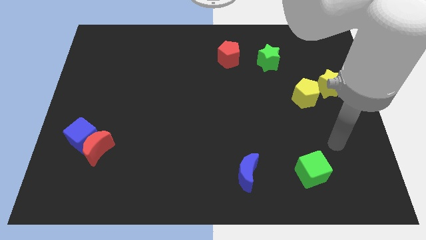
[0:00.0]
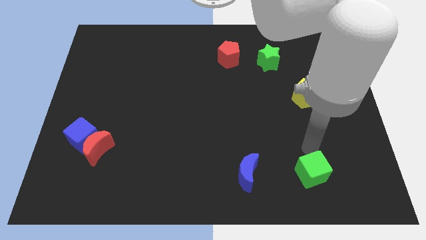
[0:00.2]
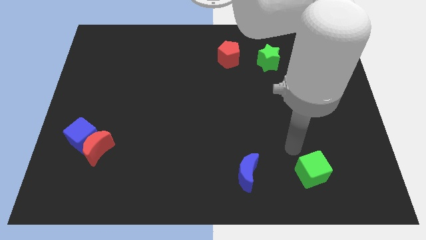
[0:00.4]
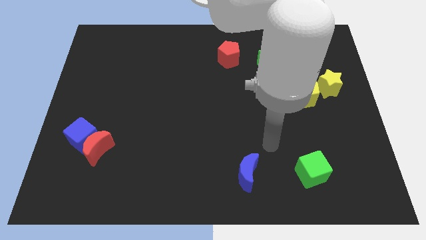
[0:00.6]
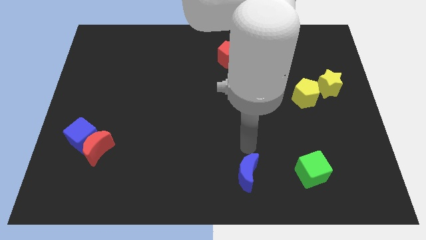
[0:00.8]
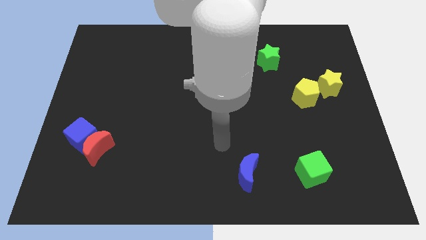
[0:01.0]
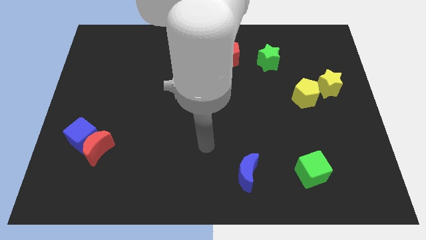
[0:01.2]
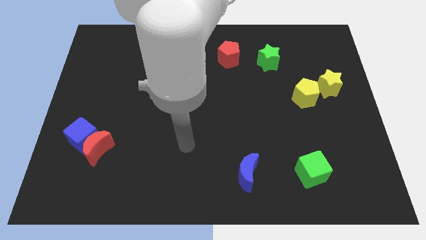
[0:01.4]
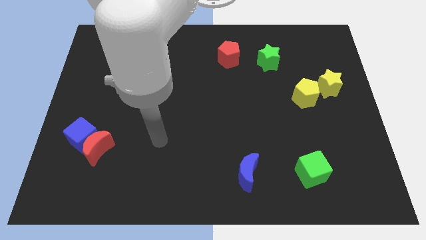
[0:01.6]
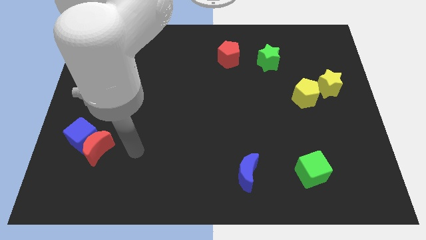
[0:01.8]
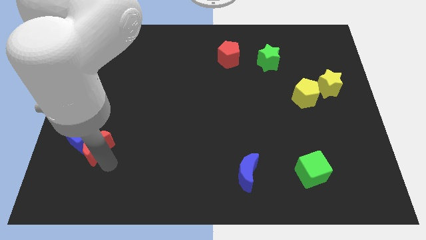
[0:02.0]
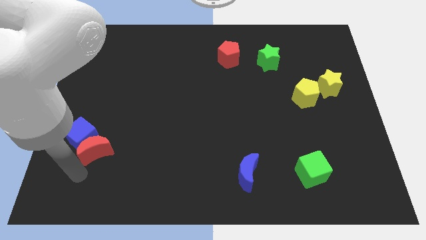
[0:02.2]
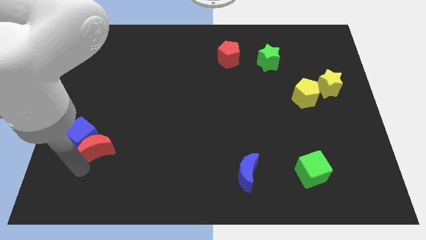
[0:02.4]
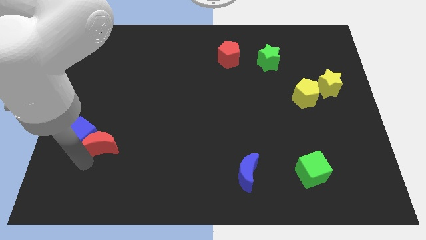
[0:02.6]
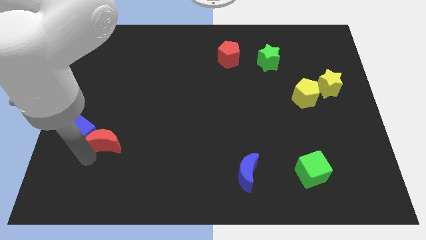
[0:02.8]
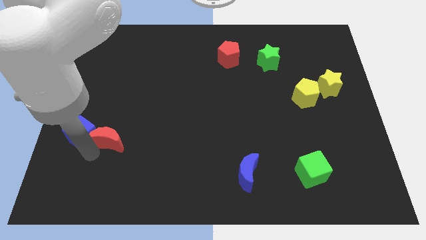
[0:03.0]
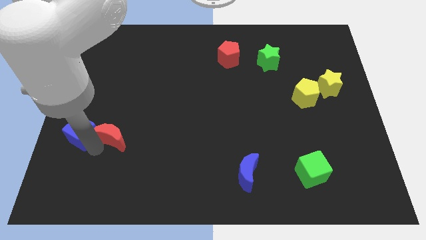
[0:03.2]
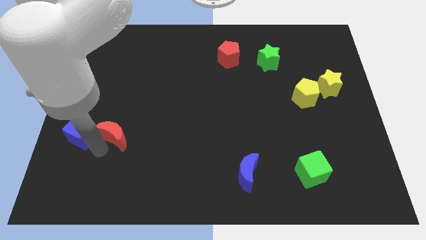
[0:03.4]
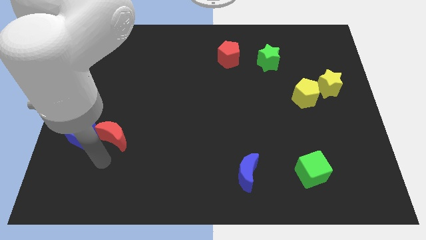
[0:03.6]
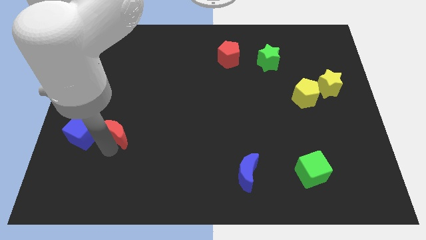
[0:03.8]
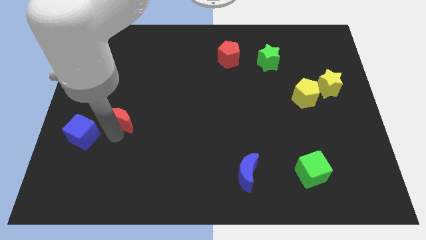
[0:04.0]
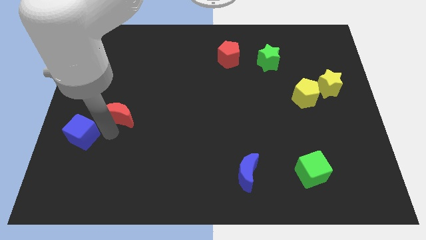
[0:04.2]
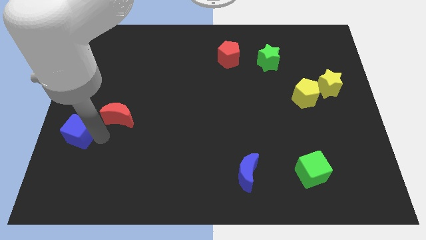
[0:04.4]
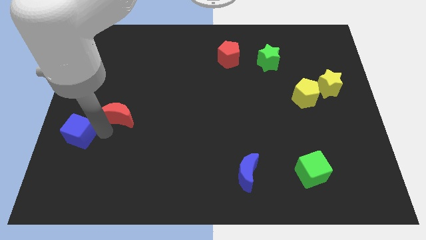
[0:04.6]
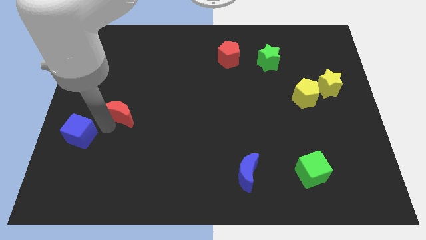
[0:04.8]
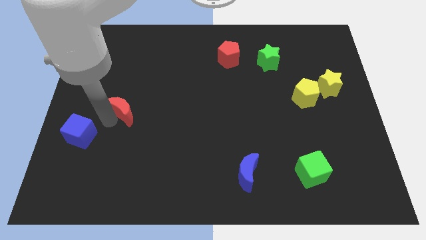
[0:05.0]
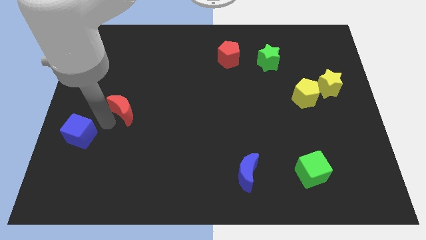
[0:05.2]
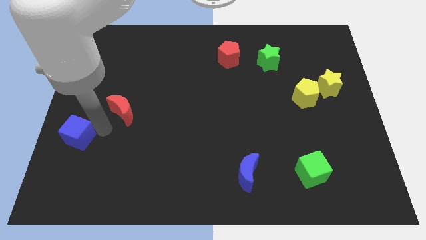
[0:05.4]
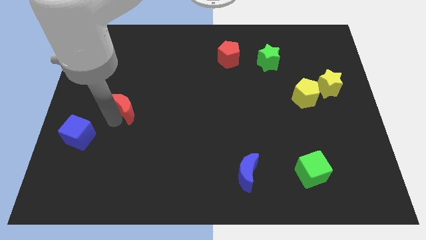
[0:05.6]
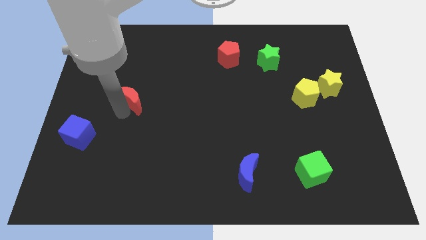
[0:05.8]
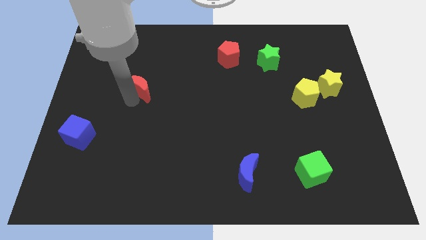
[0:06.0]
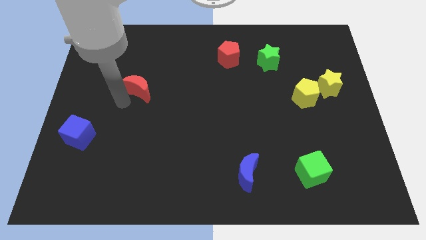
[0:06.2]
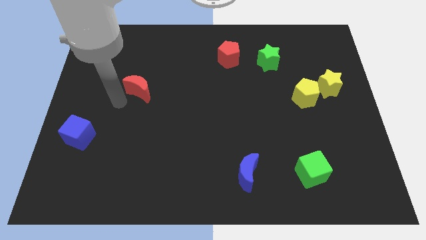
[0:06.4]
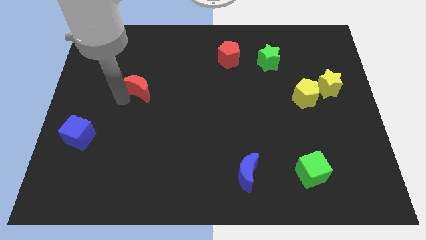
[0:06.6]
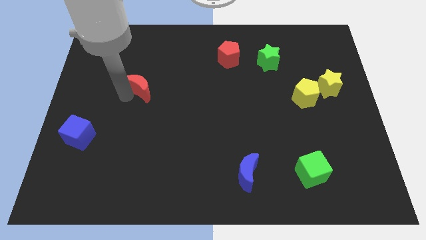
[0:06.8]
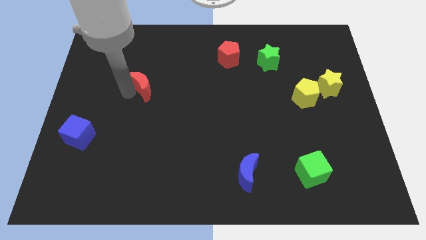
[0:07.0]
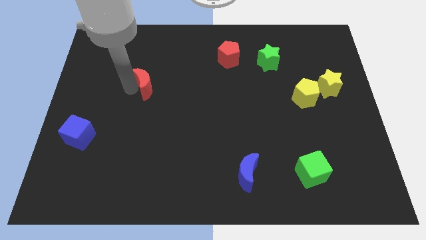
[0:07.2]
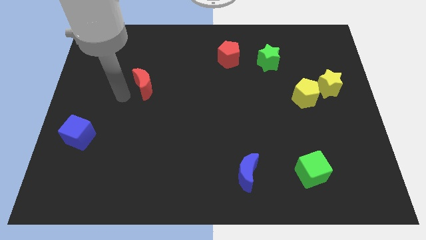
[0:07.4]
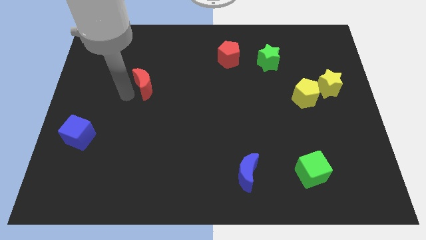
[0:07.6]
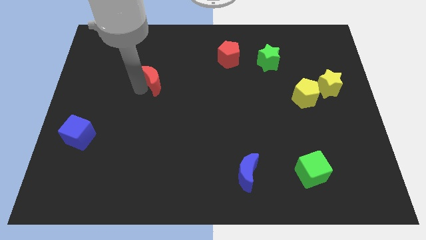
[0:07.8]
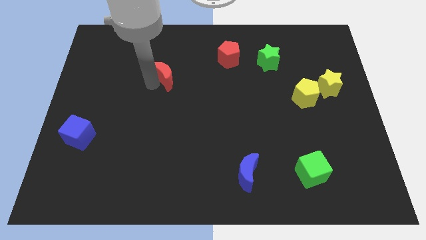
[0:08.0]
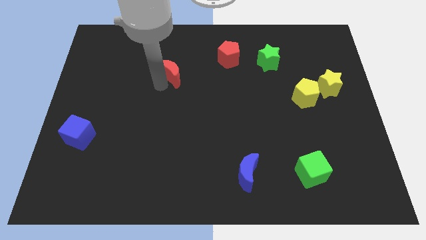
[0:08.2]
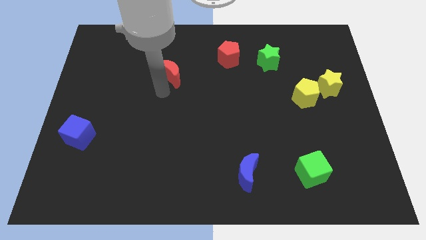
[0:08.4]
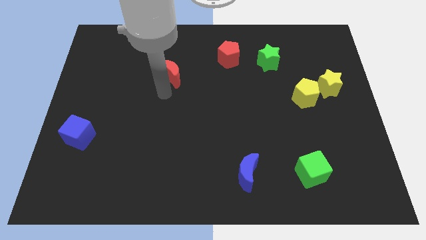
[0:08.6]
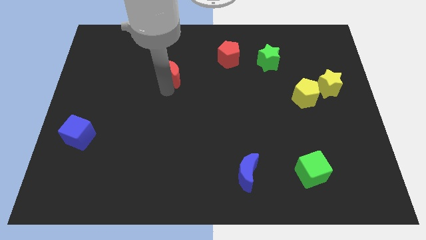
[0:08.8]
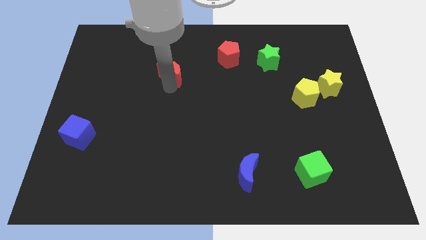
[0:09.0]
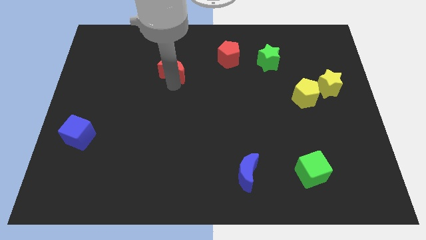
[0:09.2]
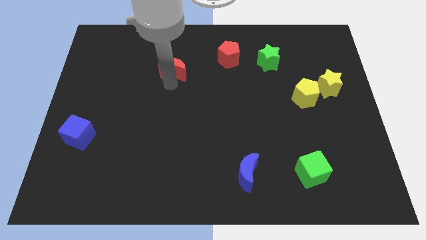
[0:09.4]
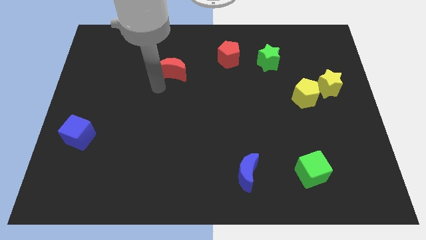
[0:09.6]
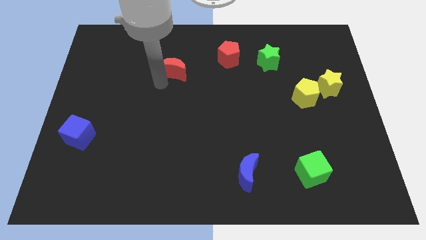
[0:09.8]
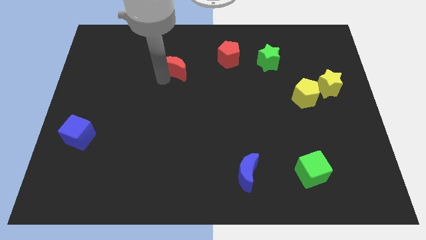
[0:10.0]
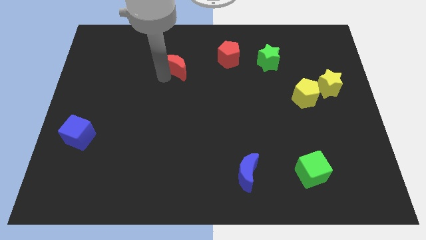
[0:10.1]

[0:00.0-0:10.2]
slide the red moon to the left side of the red pentagon

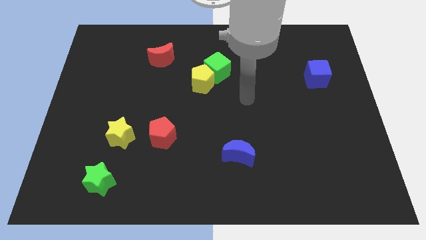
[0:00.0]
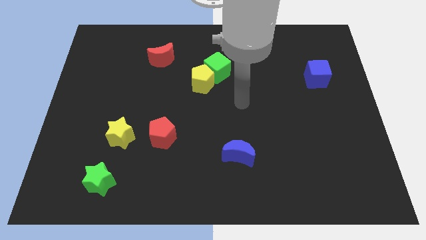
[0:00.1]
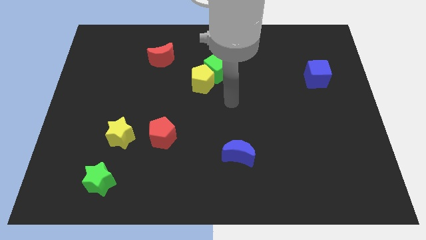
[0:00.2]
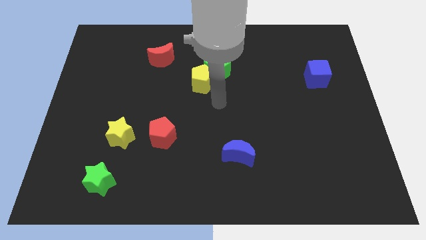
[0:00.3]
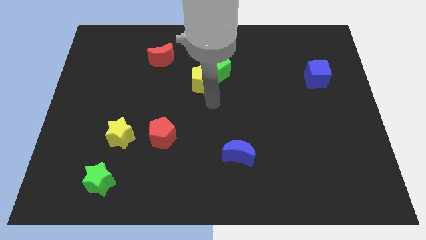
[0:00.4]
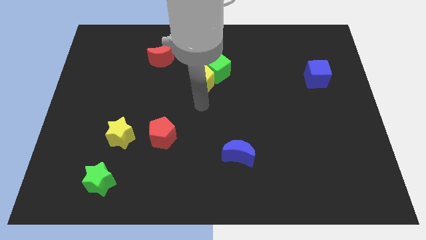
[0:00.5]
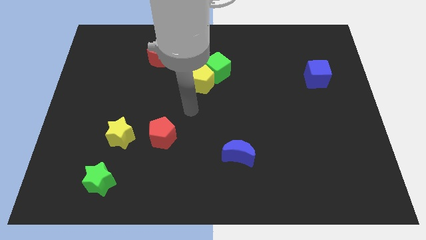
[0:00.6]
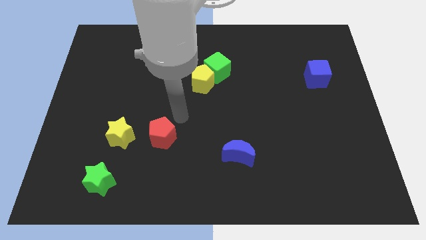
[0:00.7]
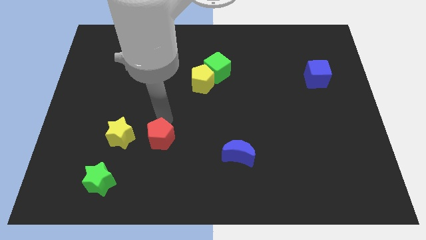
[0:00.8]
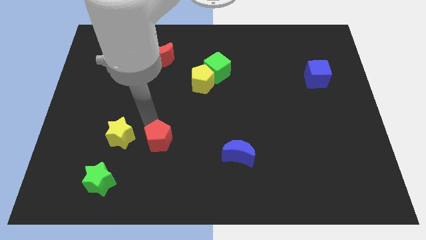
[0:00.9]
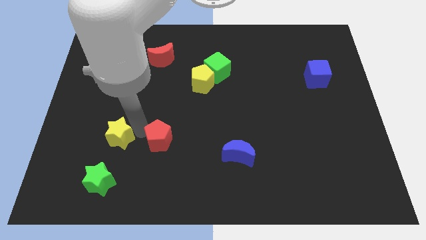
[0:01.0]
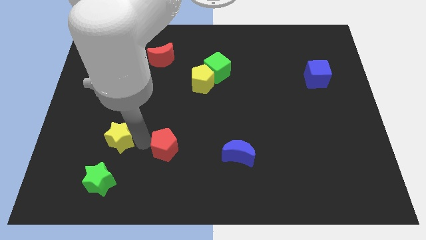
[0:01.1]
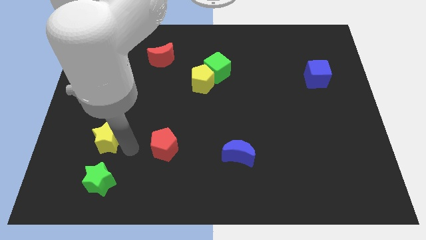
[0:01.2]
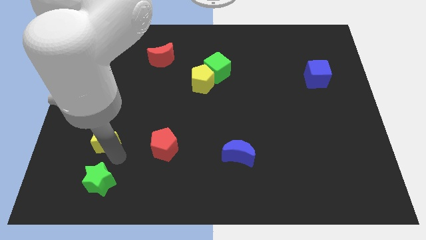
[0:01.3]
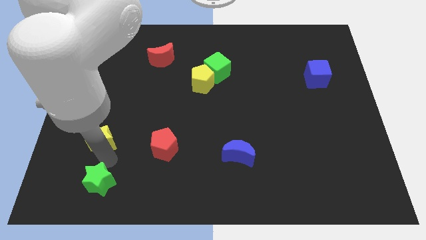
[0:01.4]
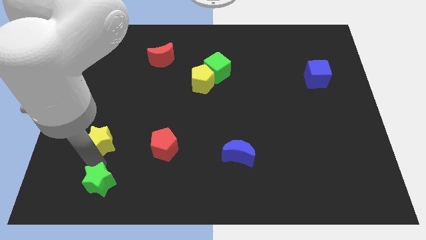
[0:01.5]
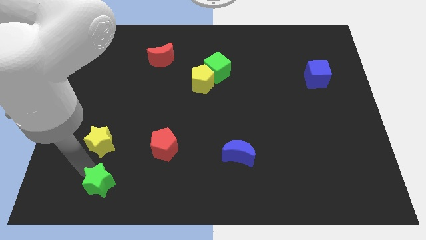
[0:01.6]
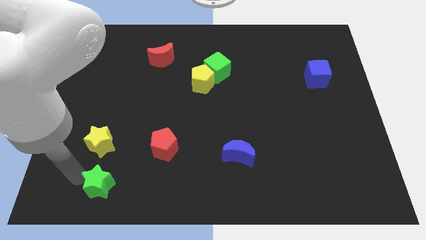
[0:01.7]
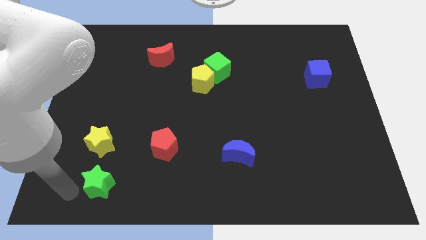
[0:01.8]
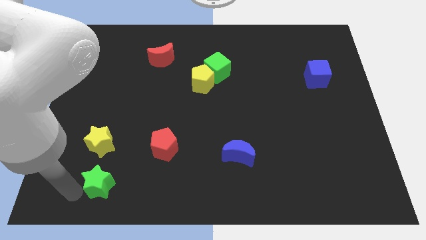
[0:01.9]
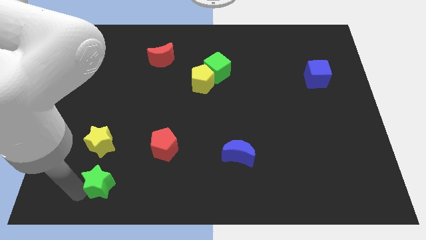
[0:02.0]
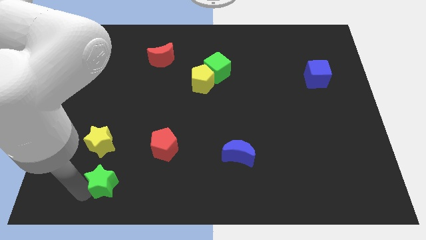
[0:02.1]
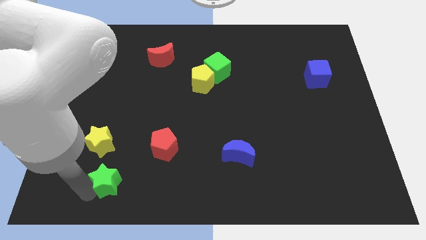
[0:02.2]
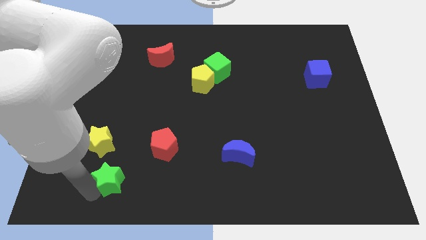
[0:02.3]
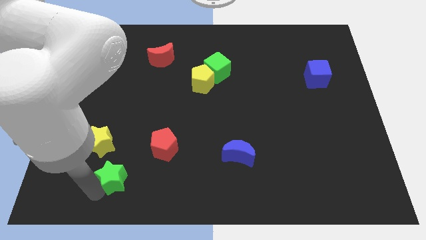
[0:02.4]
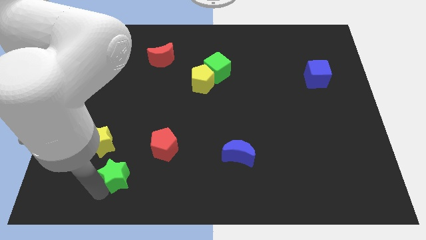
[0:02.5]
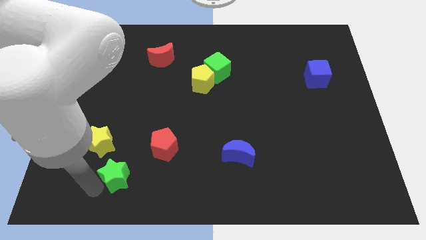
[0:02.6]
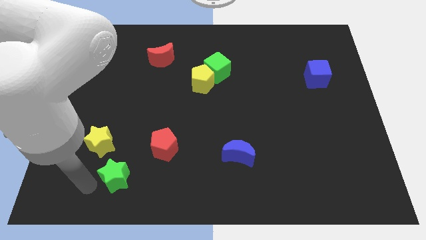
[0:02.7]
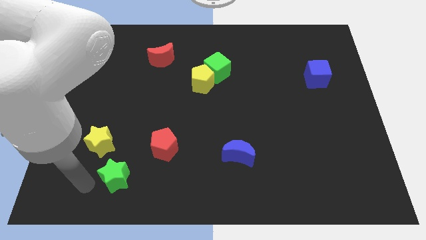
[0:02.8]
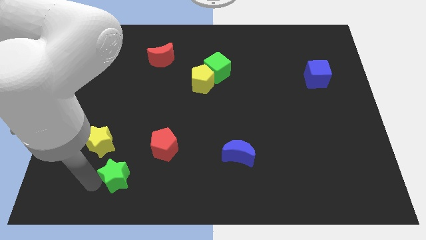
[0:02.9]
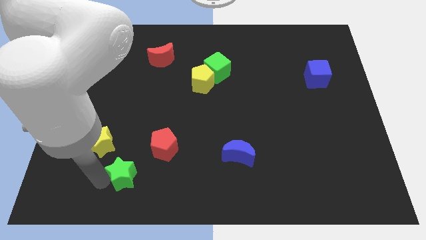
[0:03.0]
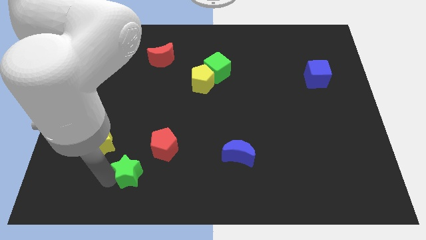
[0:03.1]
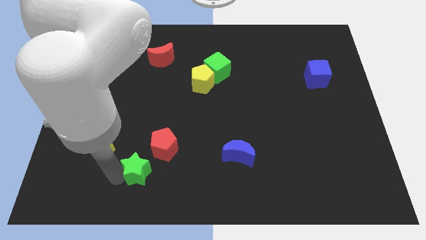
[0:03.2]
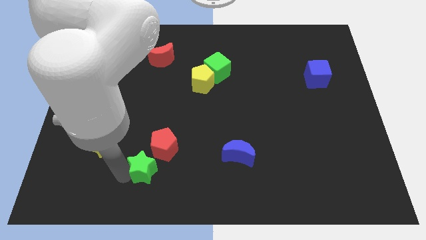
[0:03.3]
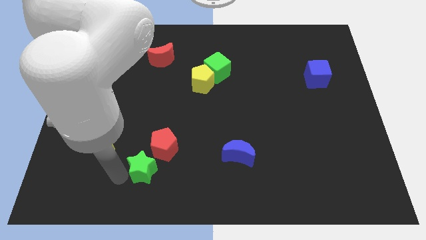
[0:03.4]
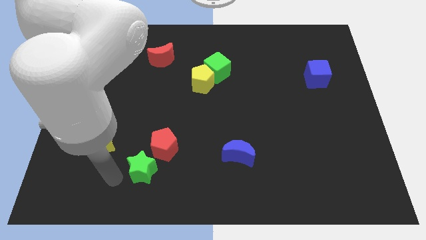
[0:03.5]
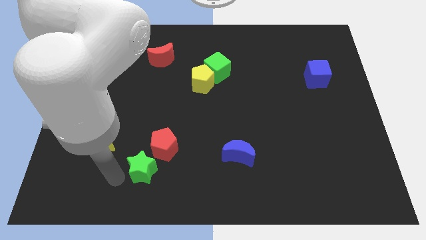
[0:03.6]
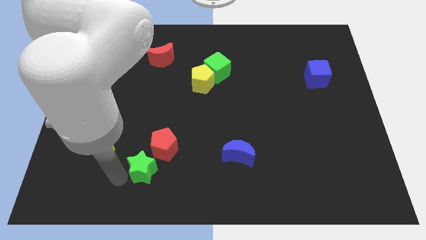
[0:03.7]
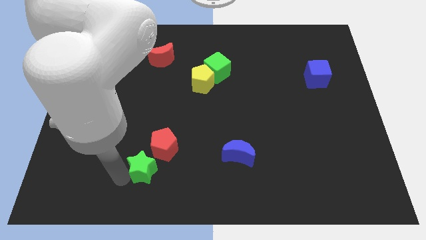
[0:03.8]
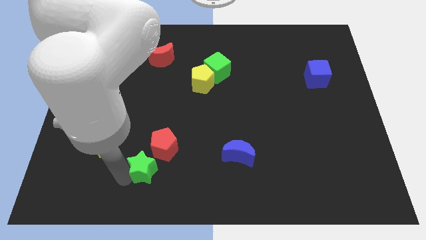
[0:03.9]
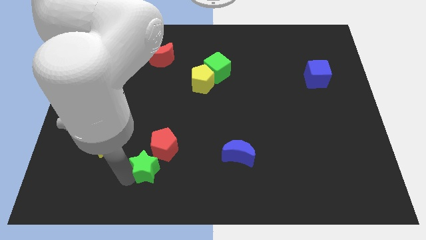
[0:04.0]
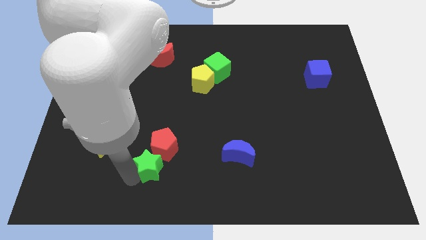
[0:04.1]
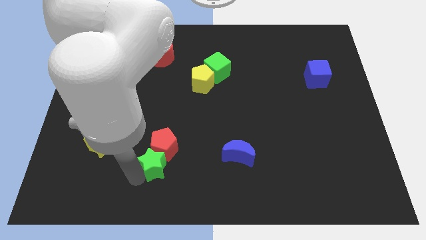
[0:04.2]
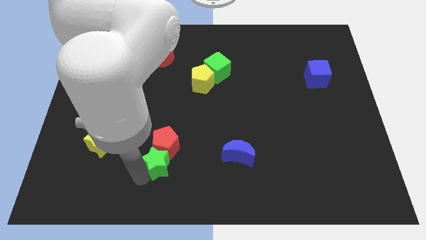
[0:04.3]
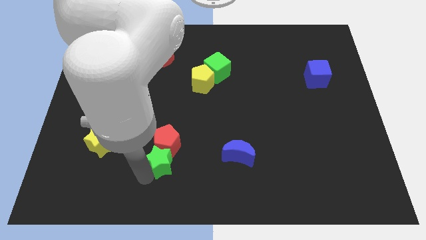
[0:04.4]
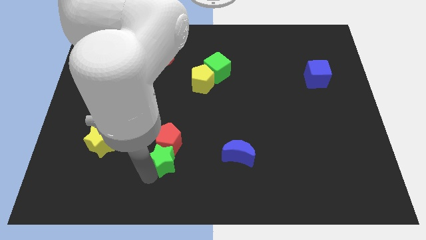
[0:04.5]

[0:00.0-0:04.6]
slide the green star to the left side of the blue moon
